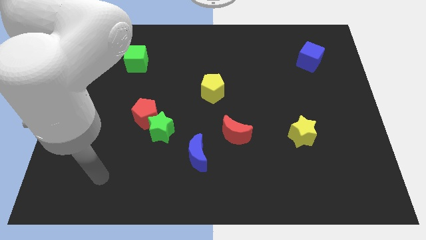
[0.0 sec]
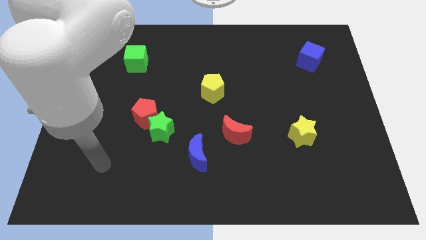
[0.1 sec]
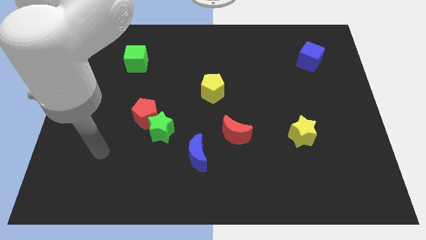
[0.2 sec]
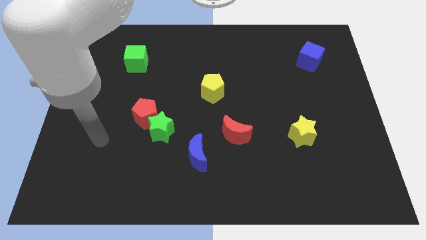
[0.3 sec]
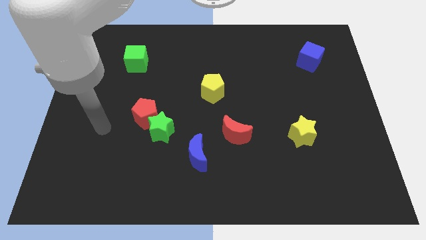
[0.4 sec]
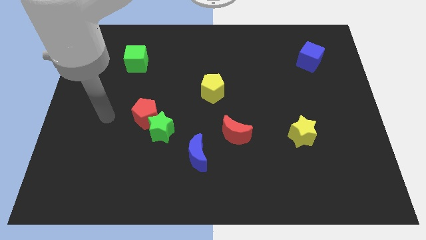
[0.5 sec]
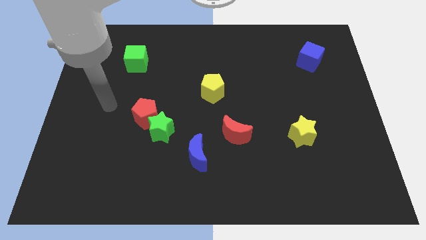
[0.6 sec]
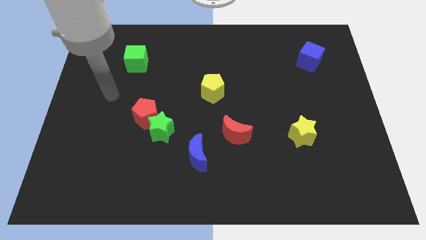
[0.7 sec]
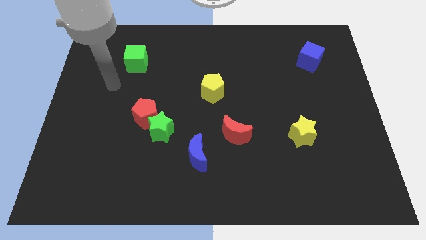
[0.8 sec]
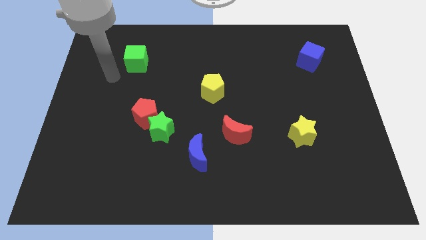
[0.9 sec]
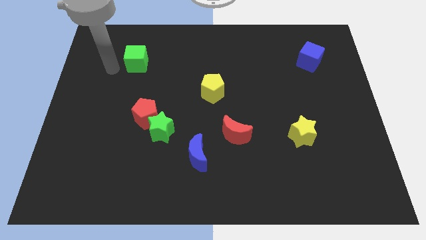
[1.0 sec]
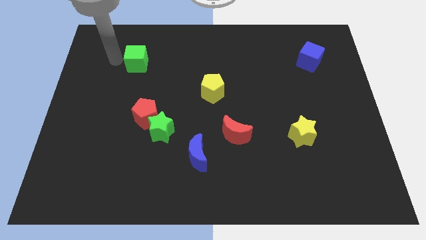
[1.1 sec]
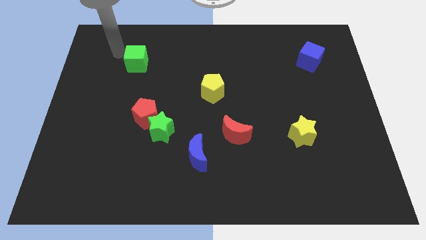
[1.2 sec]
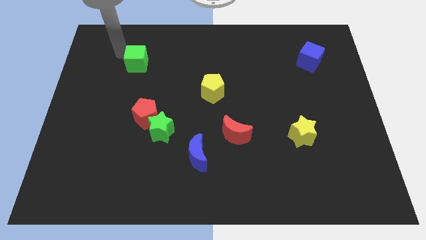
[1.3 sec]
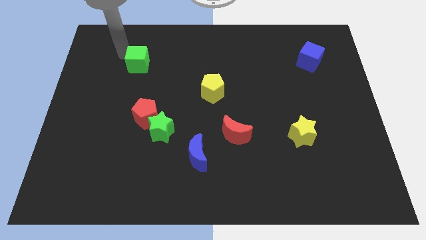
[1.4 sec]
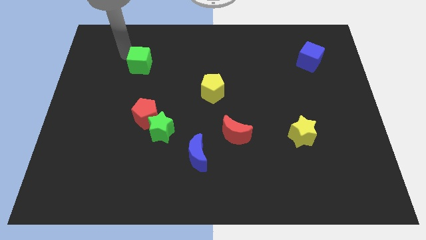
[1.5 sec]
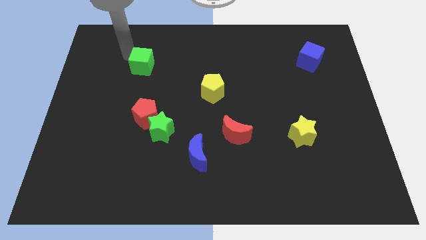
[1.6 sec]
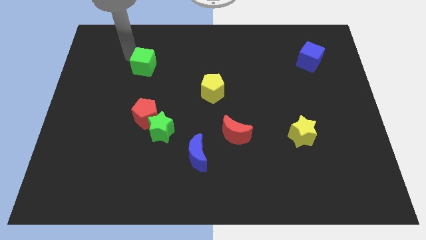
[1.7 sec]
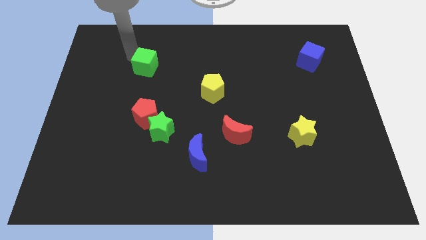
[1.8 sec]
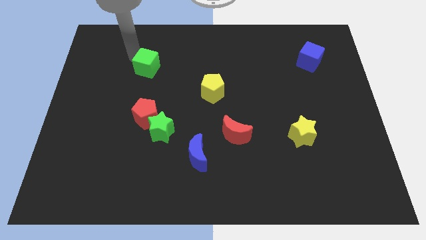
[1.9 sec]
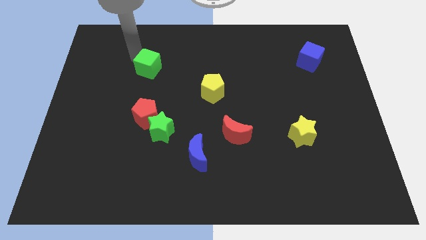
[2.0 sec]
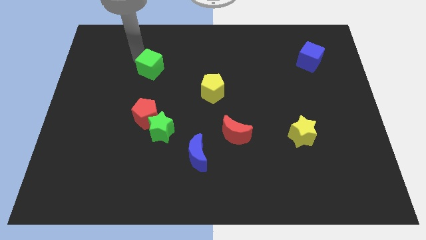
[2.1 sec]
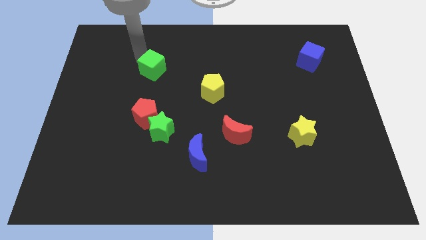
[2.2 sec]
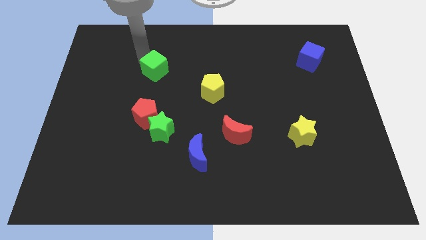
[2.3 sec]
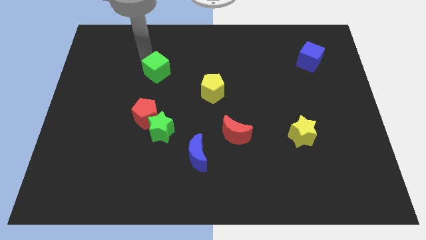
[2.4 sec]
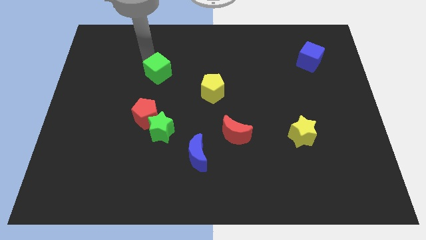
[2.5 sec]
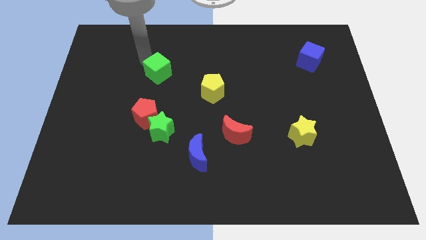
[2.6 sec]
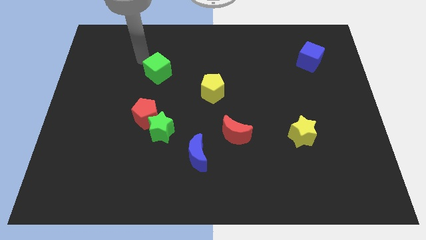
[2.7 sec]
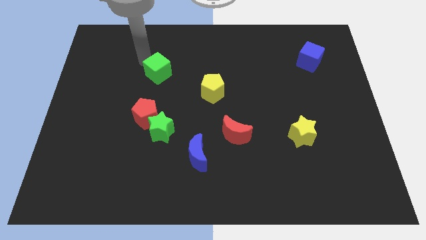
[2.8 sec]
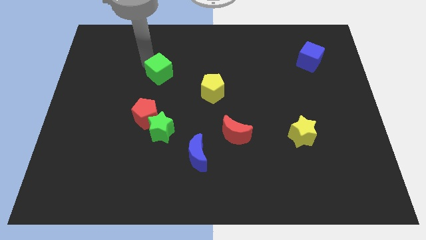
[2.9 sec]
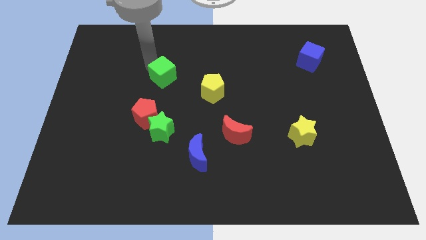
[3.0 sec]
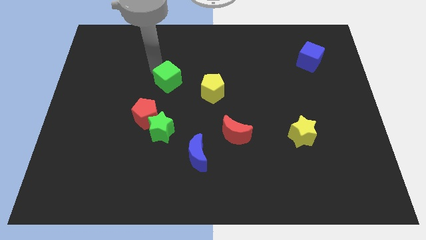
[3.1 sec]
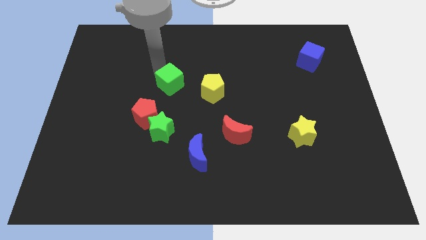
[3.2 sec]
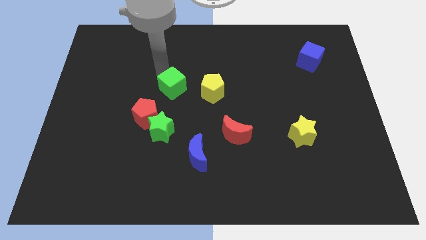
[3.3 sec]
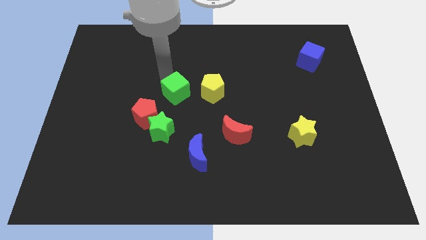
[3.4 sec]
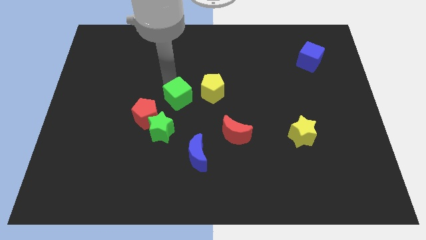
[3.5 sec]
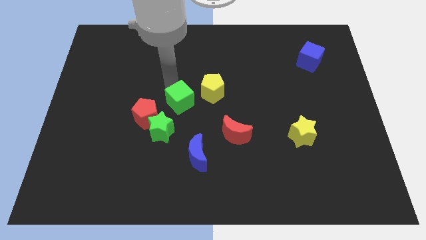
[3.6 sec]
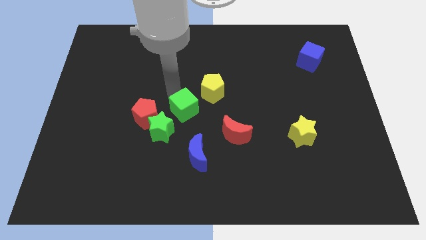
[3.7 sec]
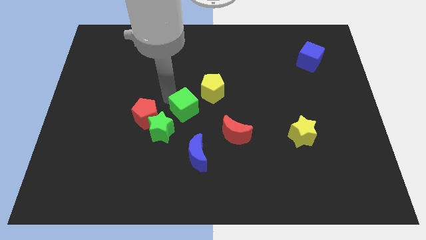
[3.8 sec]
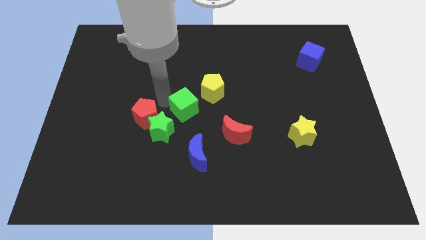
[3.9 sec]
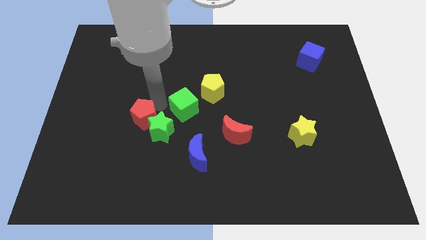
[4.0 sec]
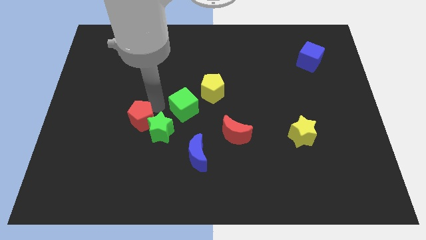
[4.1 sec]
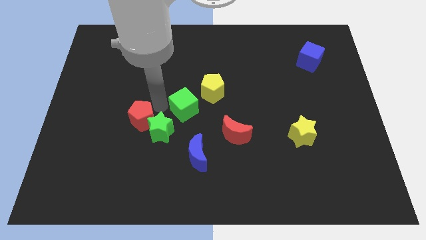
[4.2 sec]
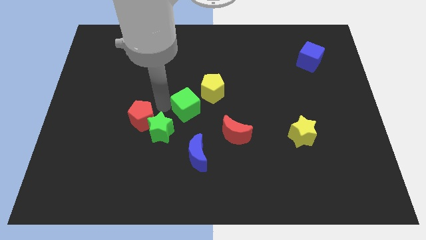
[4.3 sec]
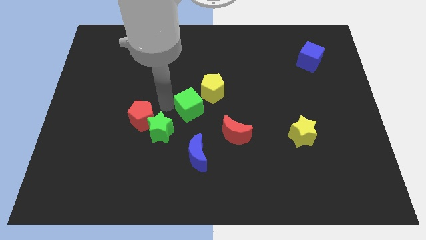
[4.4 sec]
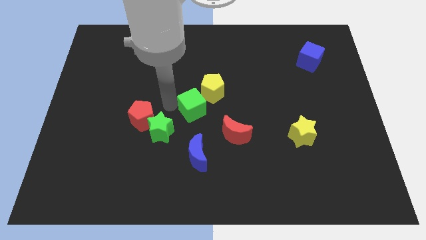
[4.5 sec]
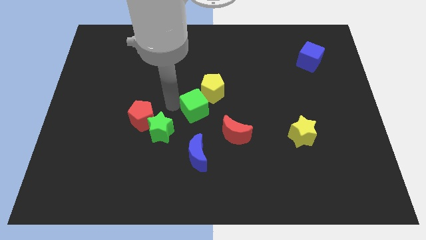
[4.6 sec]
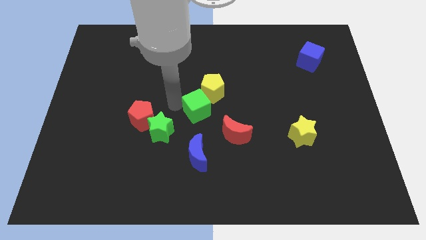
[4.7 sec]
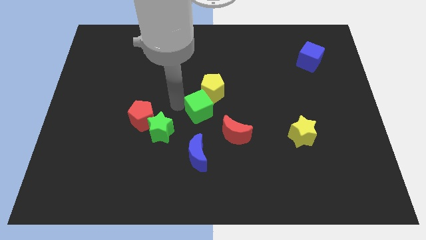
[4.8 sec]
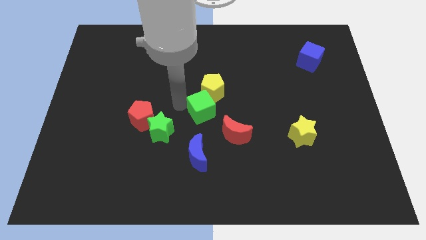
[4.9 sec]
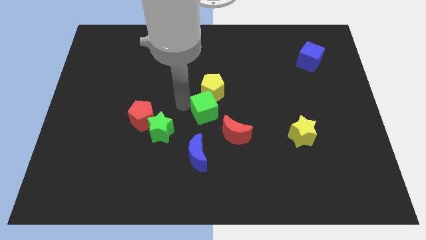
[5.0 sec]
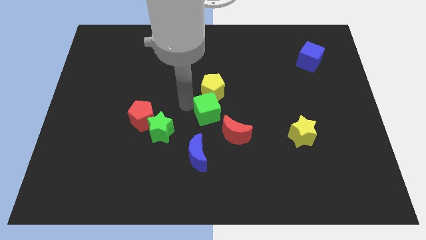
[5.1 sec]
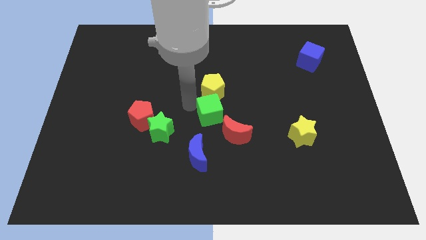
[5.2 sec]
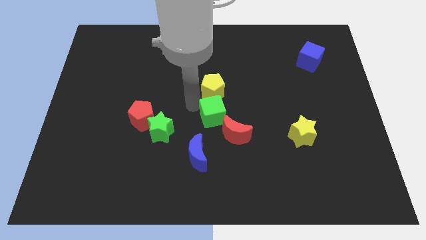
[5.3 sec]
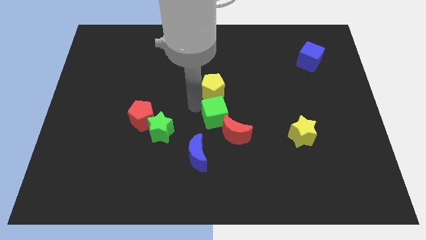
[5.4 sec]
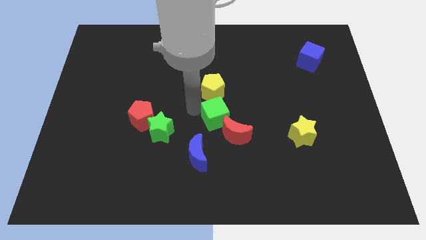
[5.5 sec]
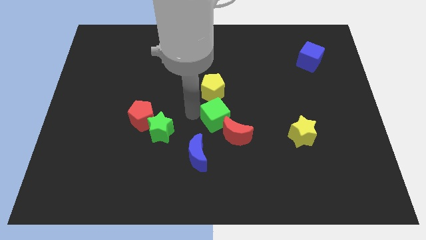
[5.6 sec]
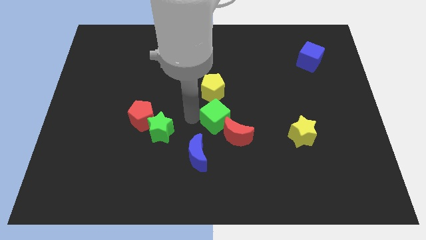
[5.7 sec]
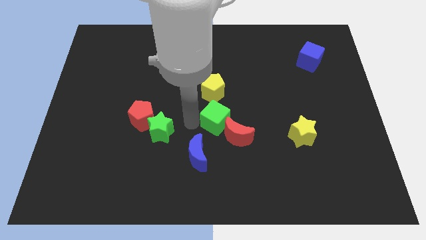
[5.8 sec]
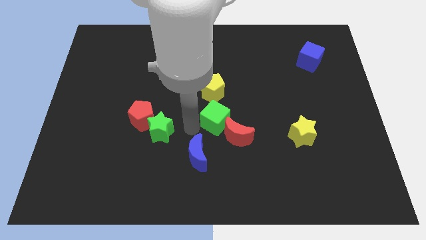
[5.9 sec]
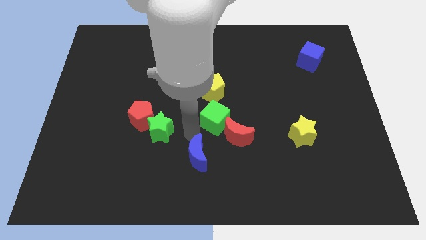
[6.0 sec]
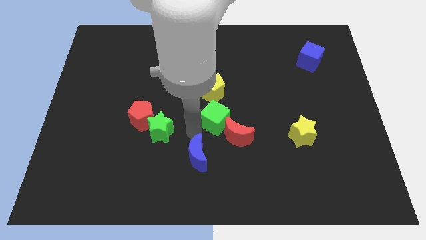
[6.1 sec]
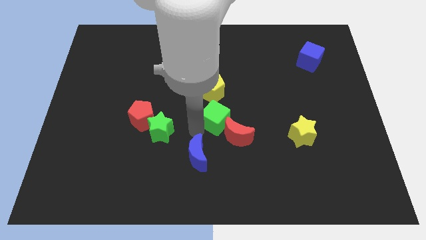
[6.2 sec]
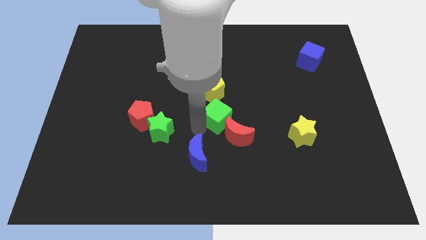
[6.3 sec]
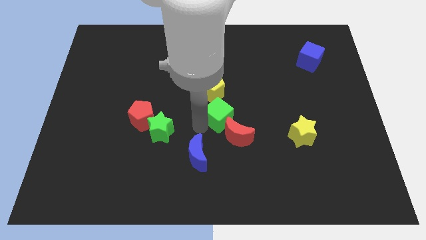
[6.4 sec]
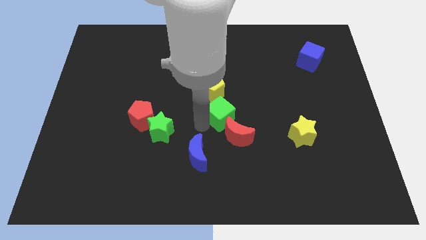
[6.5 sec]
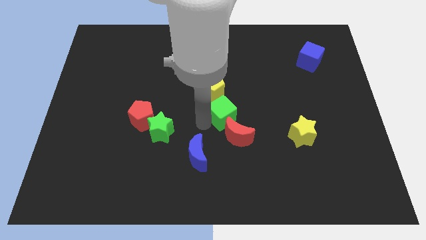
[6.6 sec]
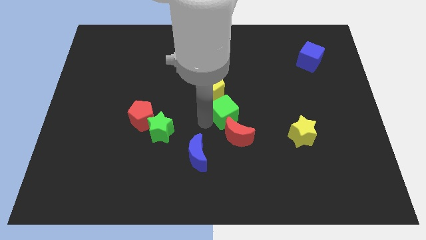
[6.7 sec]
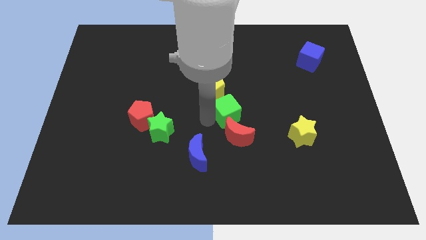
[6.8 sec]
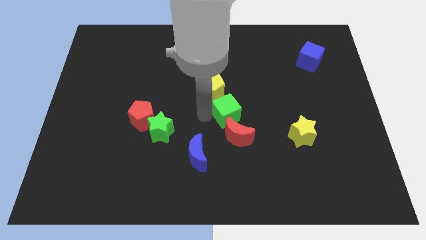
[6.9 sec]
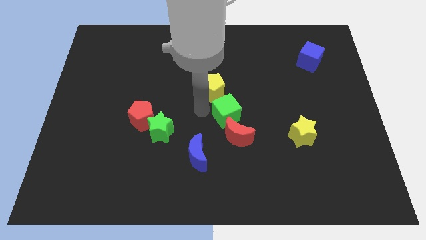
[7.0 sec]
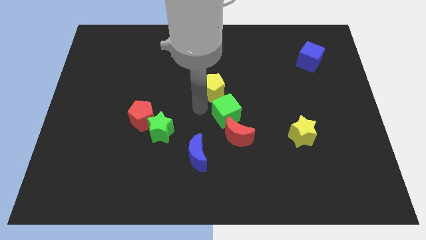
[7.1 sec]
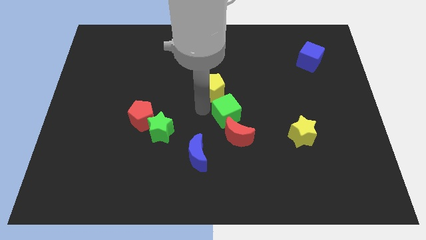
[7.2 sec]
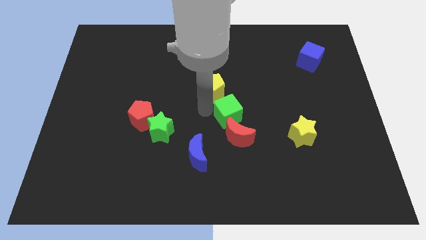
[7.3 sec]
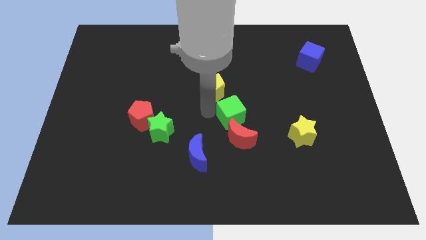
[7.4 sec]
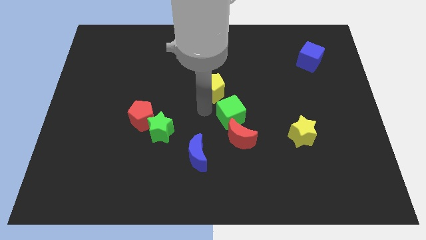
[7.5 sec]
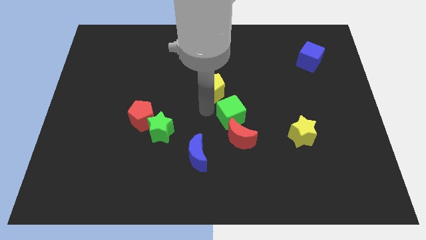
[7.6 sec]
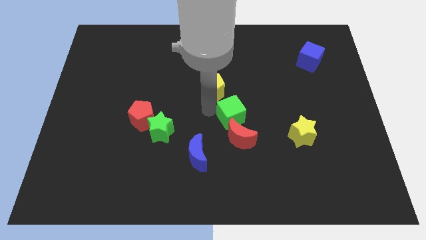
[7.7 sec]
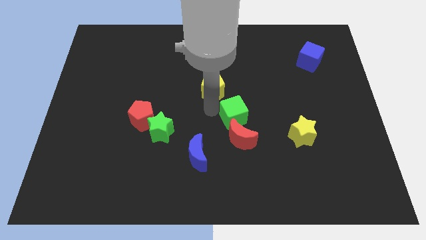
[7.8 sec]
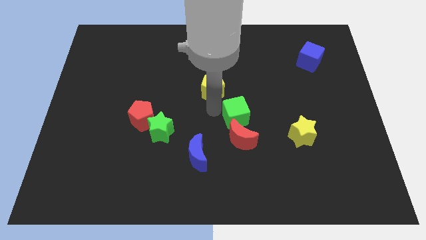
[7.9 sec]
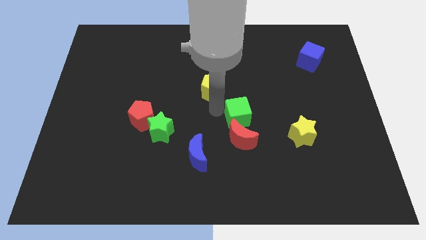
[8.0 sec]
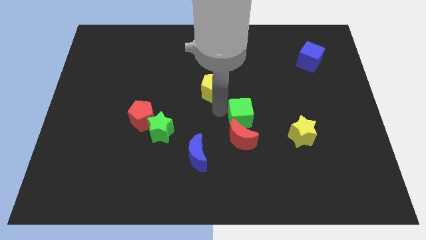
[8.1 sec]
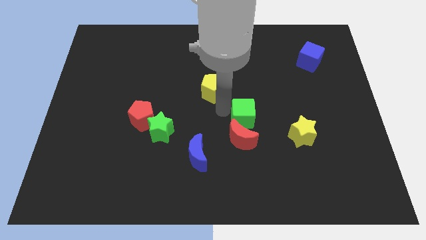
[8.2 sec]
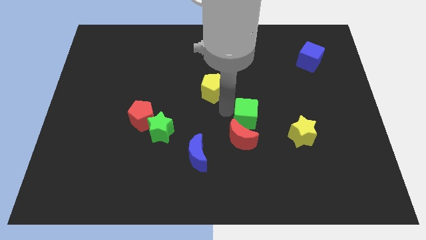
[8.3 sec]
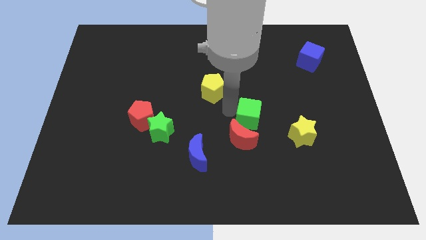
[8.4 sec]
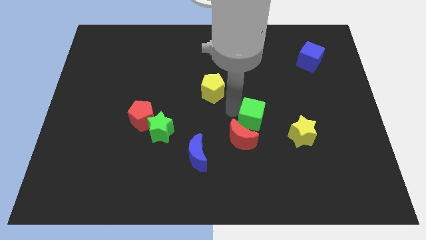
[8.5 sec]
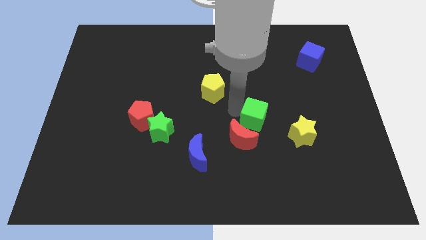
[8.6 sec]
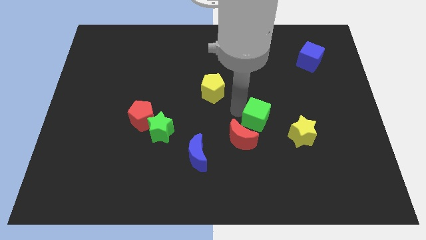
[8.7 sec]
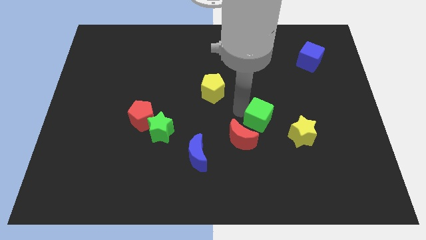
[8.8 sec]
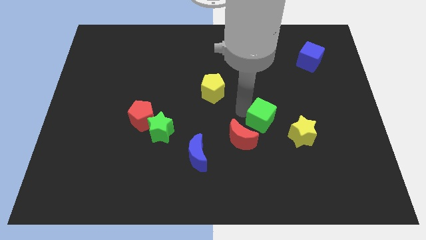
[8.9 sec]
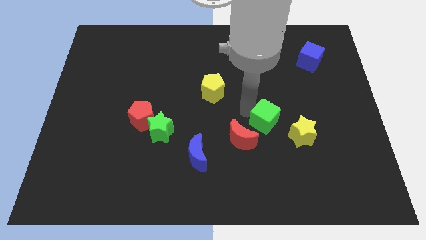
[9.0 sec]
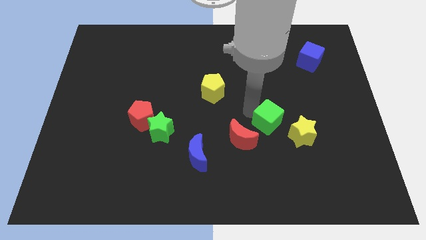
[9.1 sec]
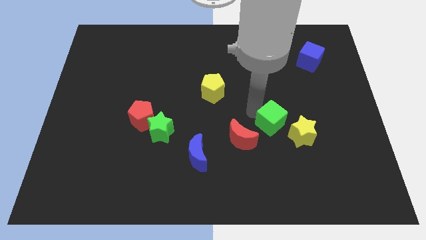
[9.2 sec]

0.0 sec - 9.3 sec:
put the green cube just right of the red moon
